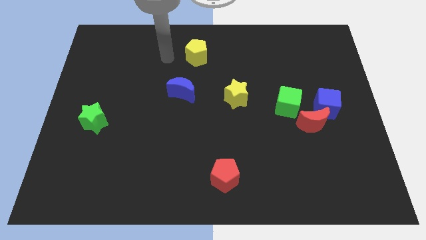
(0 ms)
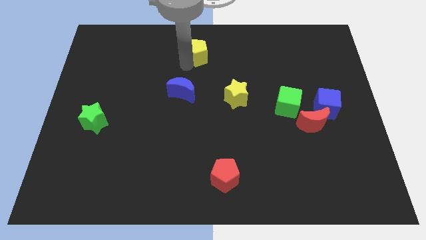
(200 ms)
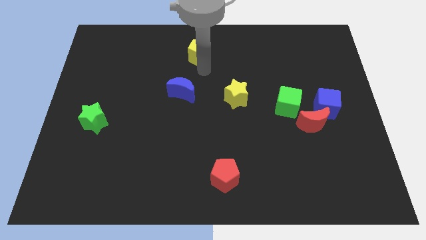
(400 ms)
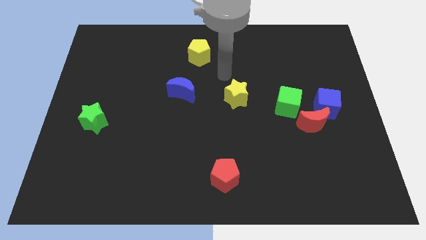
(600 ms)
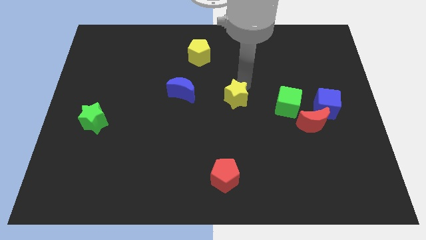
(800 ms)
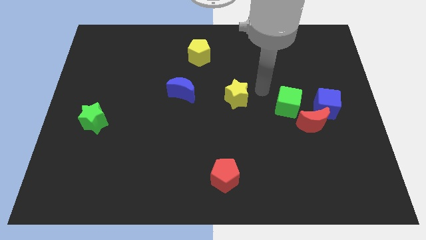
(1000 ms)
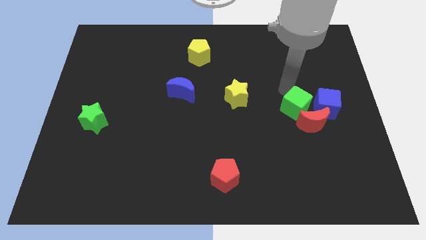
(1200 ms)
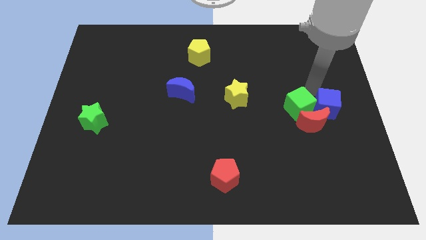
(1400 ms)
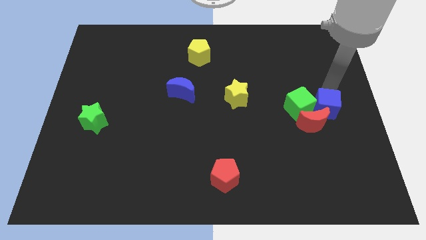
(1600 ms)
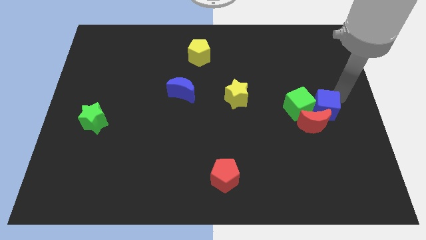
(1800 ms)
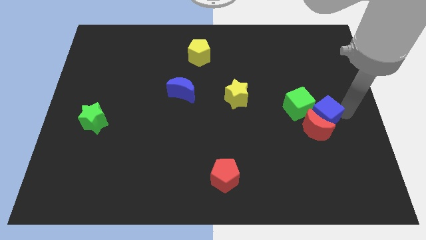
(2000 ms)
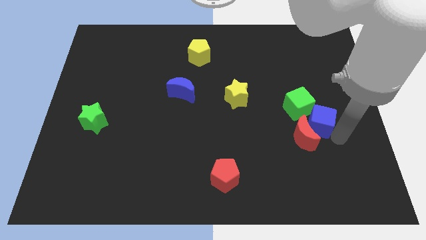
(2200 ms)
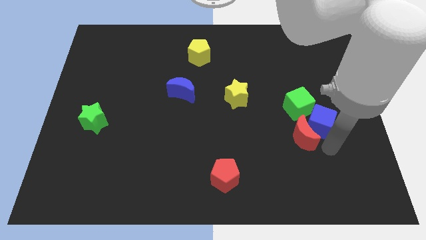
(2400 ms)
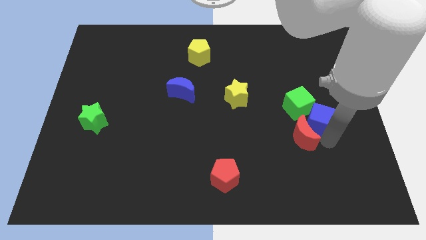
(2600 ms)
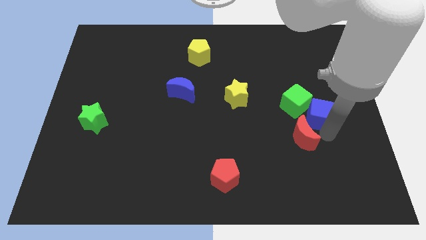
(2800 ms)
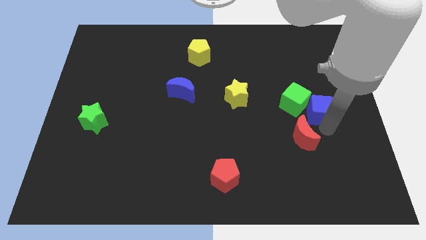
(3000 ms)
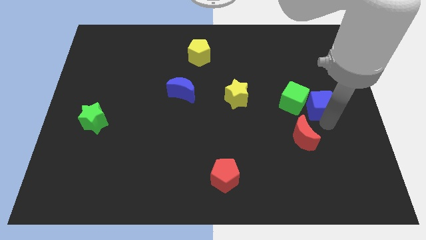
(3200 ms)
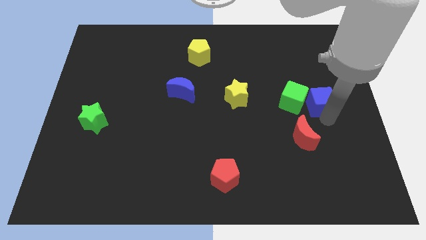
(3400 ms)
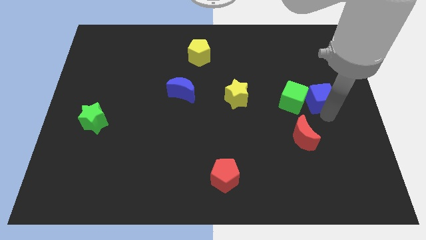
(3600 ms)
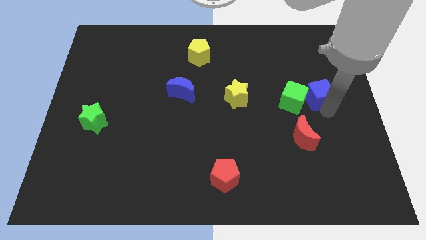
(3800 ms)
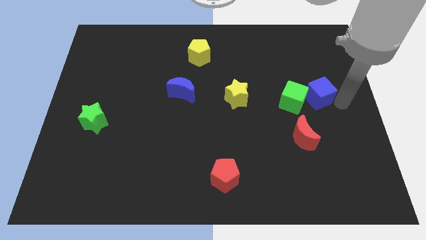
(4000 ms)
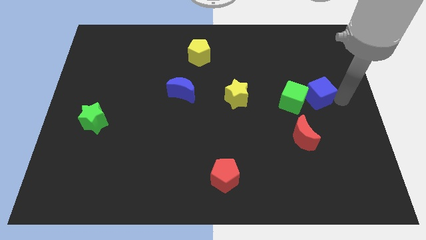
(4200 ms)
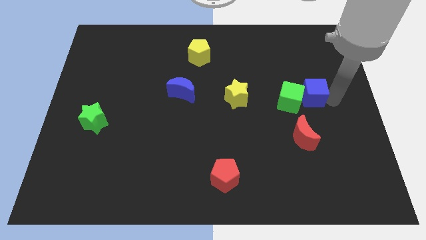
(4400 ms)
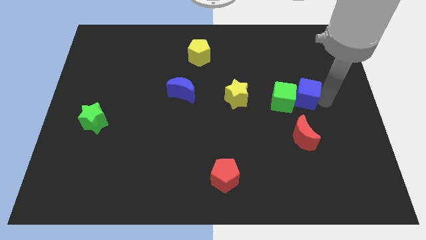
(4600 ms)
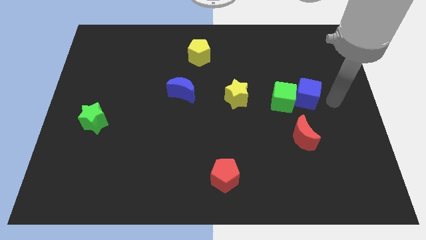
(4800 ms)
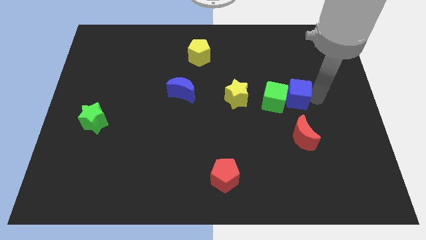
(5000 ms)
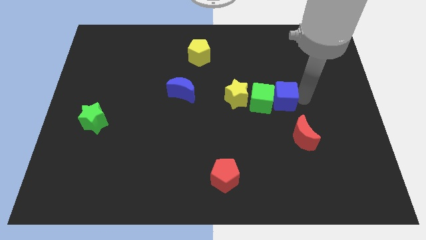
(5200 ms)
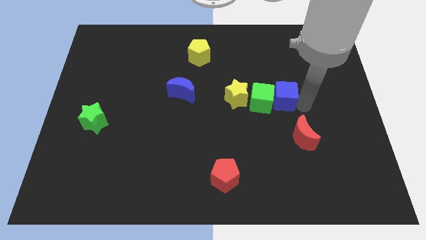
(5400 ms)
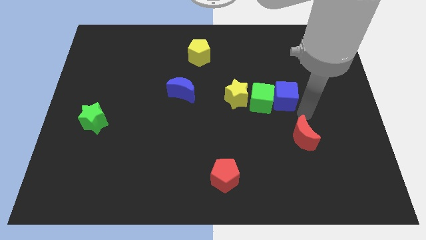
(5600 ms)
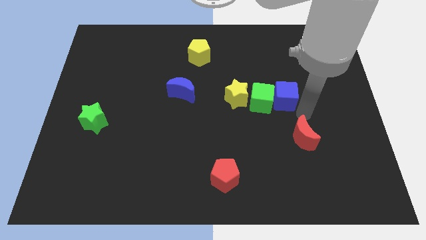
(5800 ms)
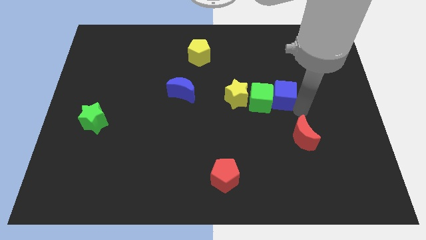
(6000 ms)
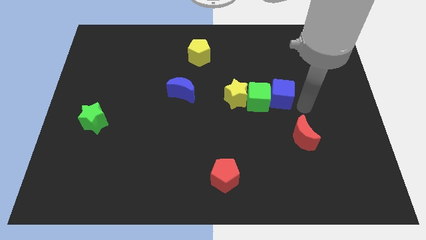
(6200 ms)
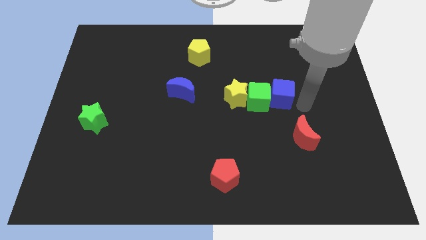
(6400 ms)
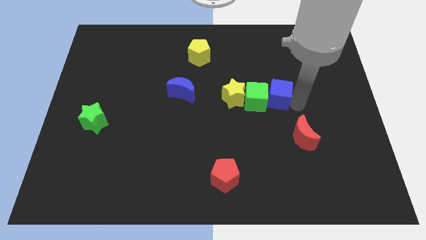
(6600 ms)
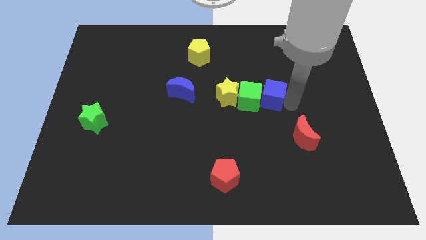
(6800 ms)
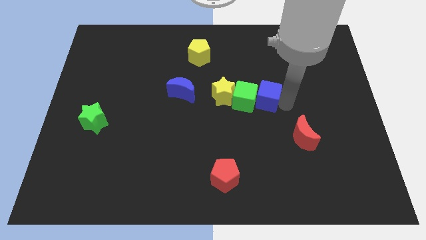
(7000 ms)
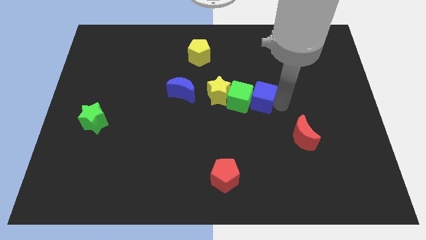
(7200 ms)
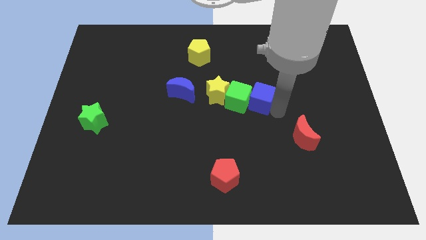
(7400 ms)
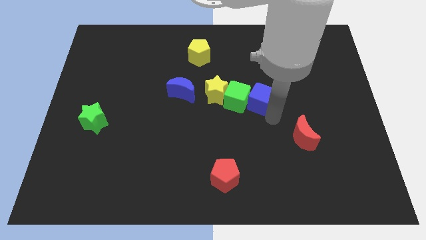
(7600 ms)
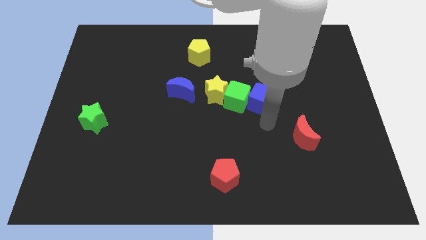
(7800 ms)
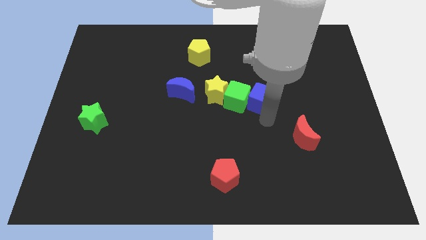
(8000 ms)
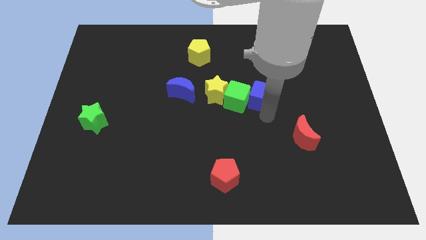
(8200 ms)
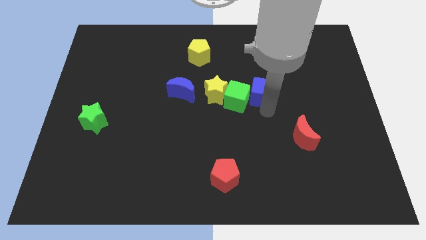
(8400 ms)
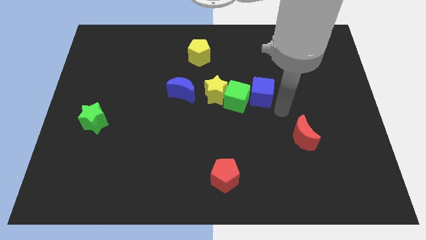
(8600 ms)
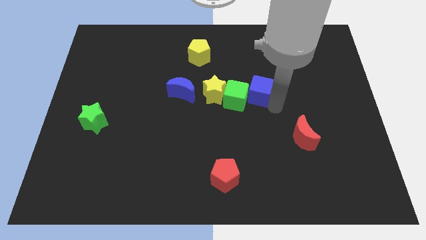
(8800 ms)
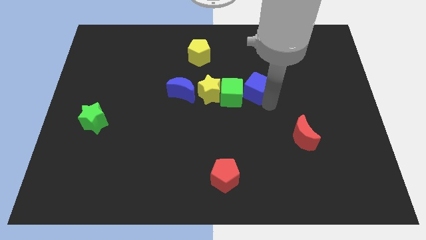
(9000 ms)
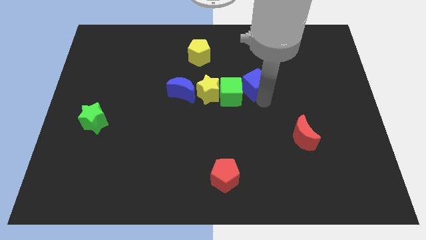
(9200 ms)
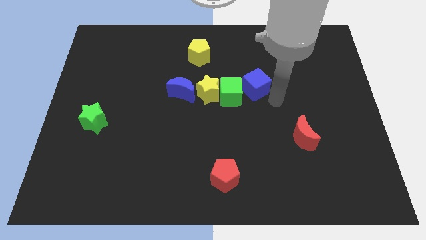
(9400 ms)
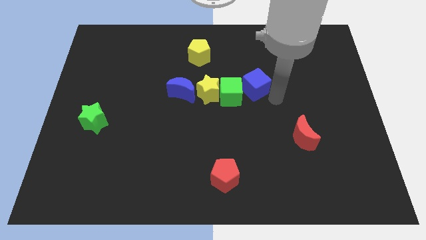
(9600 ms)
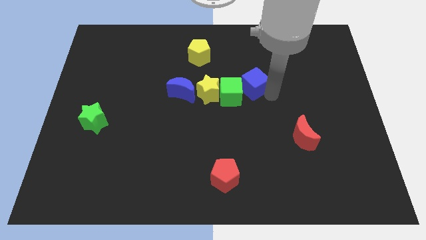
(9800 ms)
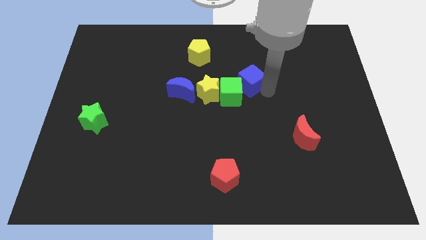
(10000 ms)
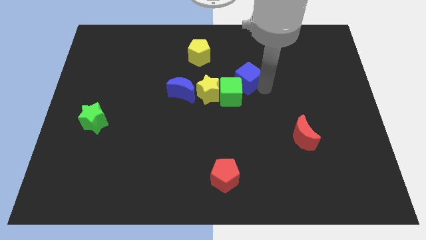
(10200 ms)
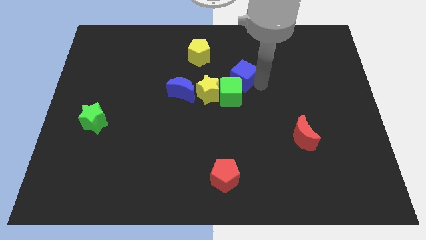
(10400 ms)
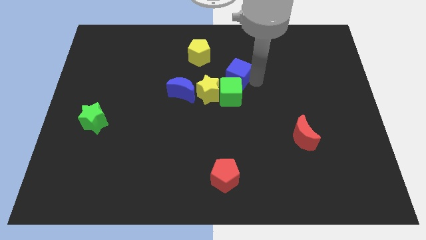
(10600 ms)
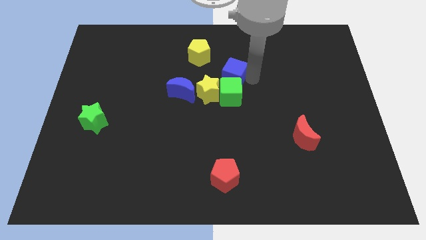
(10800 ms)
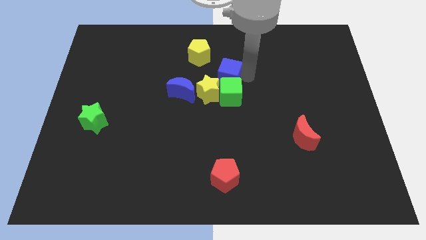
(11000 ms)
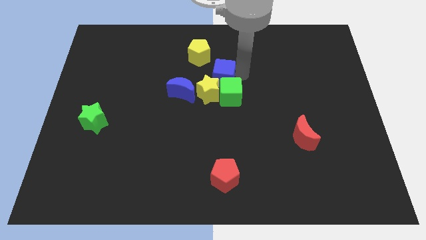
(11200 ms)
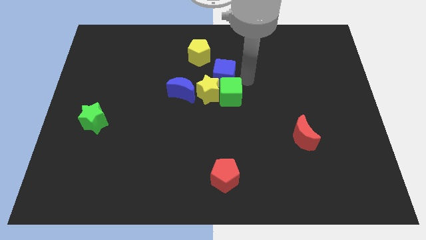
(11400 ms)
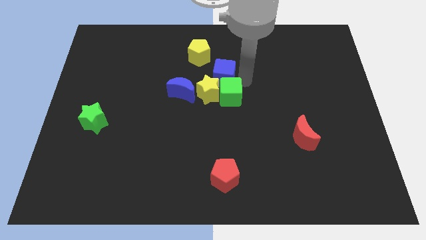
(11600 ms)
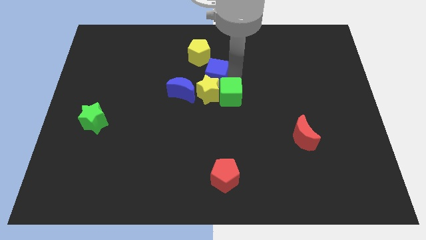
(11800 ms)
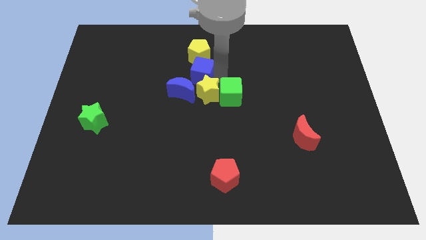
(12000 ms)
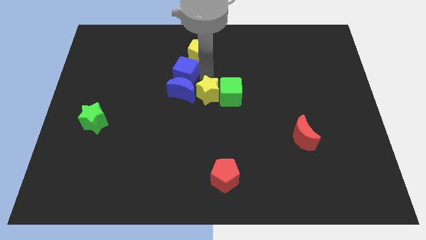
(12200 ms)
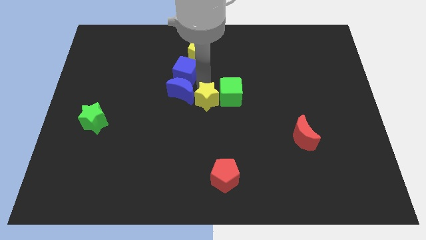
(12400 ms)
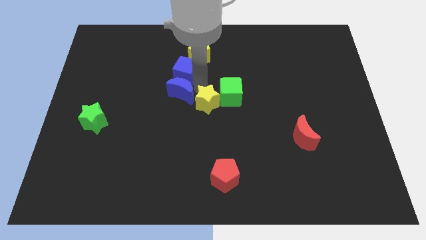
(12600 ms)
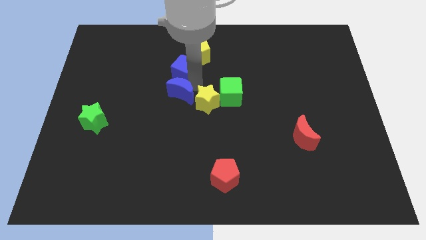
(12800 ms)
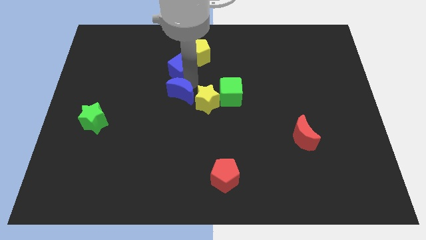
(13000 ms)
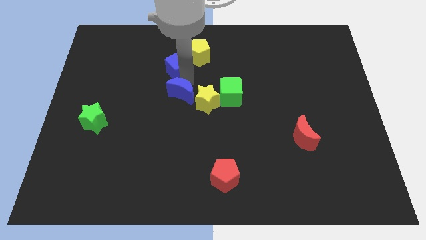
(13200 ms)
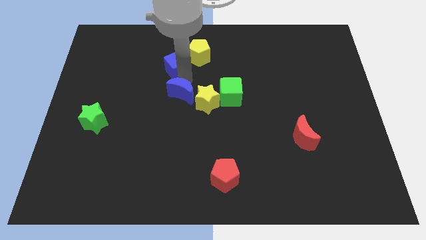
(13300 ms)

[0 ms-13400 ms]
move the blue cube just left of the yellow pentagon
